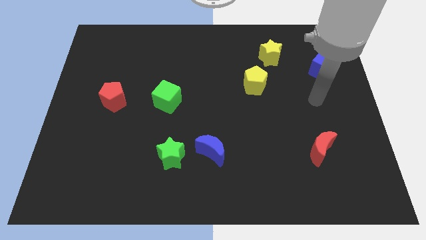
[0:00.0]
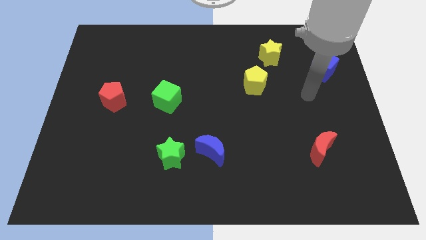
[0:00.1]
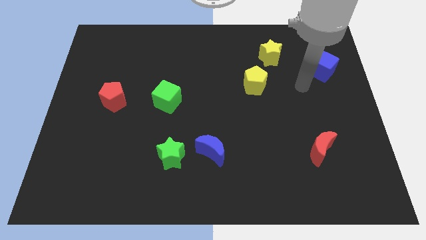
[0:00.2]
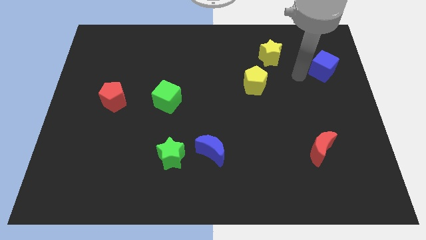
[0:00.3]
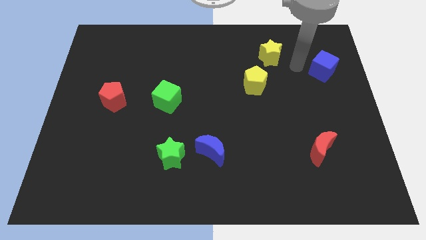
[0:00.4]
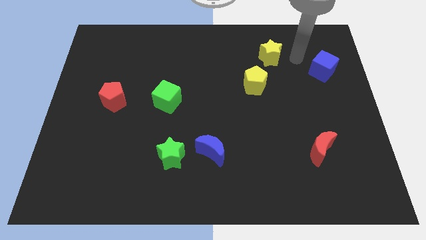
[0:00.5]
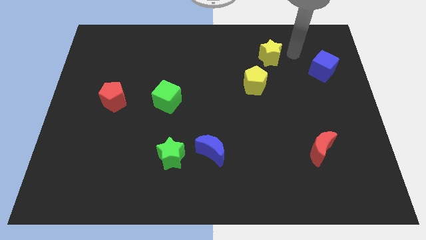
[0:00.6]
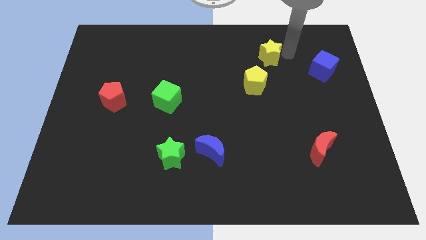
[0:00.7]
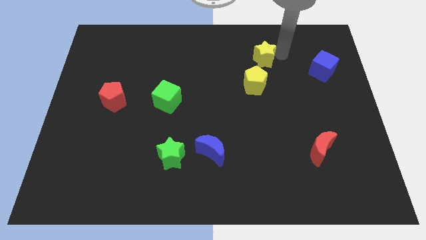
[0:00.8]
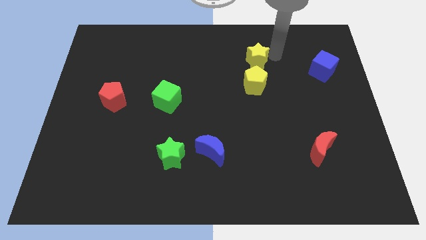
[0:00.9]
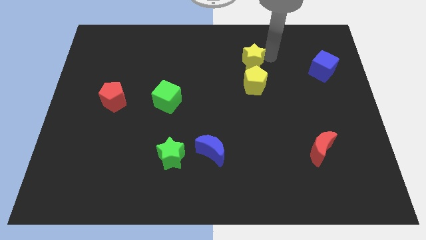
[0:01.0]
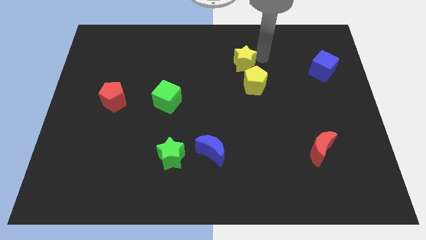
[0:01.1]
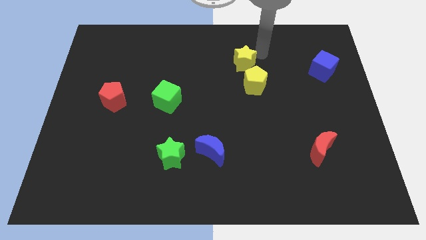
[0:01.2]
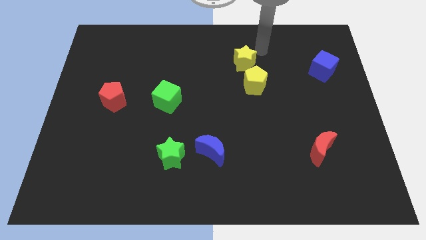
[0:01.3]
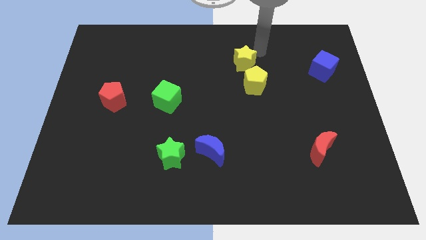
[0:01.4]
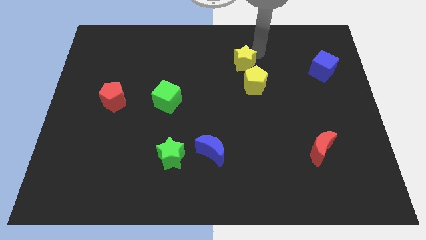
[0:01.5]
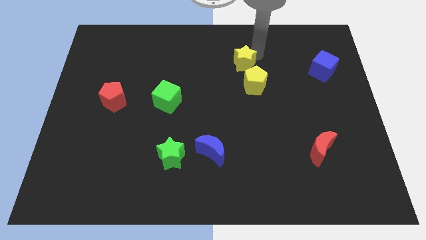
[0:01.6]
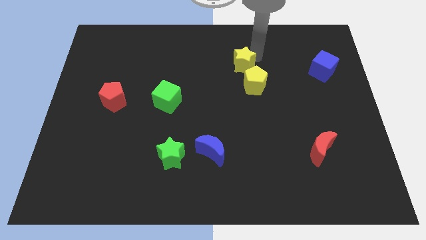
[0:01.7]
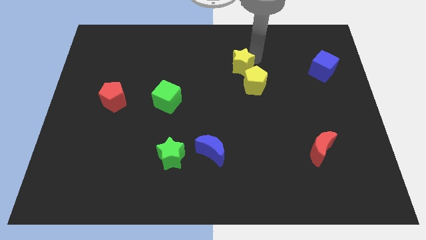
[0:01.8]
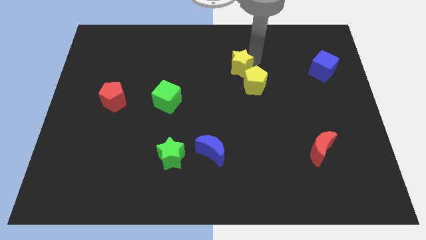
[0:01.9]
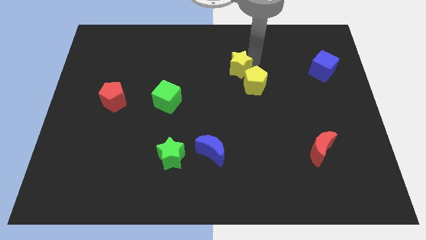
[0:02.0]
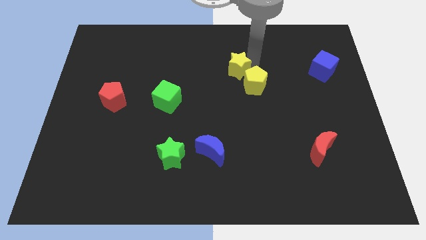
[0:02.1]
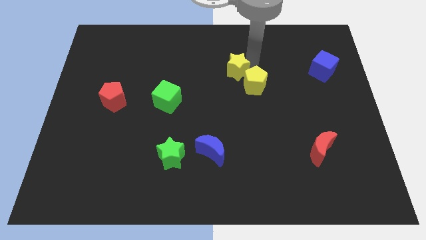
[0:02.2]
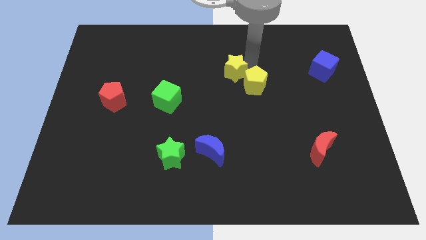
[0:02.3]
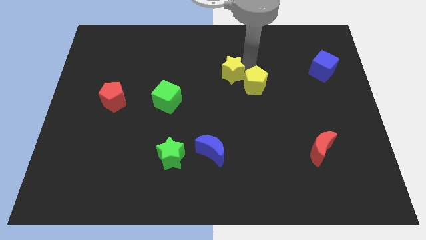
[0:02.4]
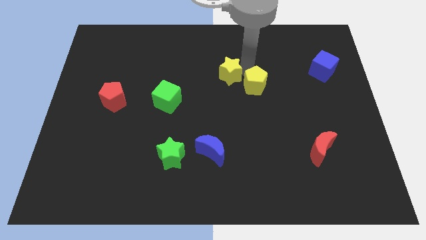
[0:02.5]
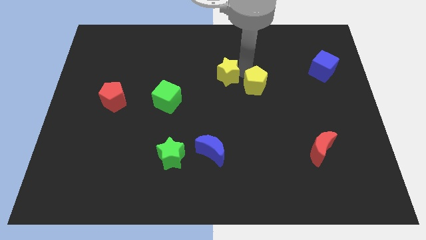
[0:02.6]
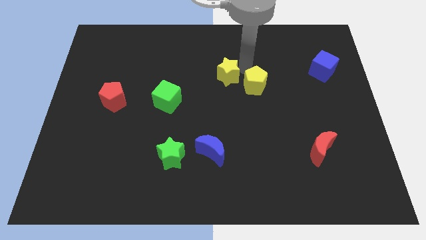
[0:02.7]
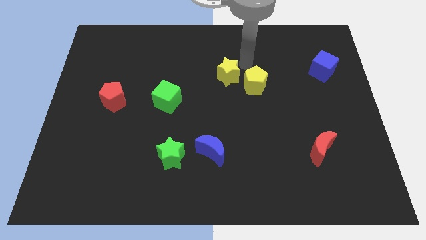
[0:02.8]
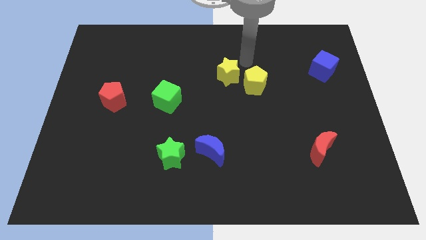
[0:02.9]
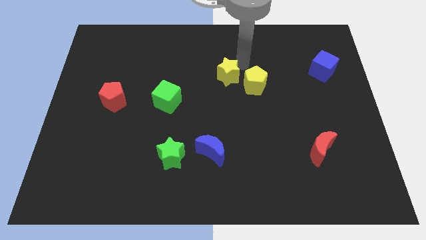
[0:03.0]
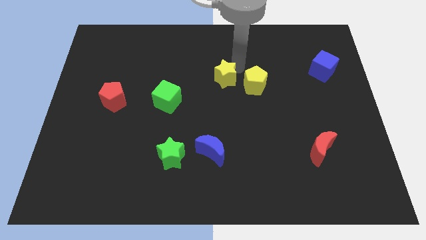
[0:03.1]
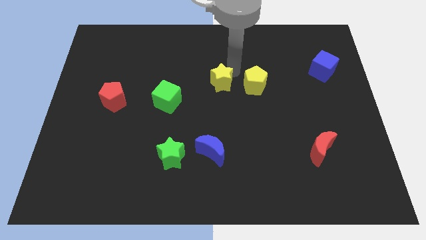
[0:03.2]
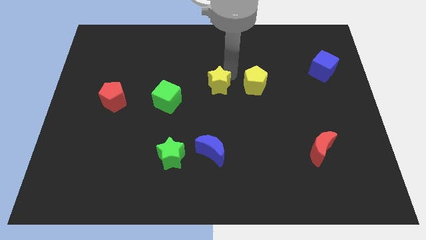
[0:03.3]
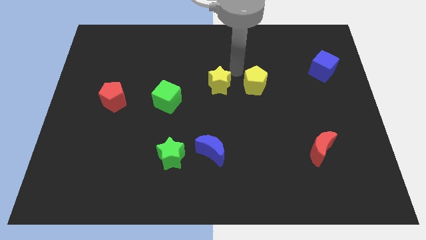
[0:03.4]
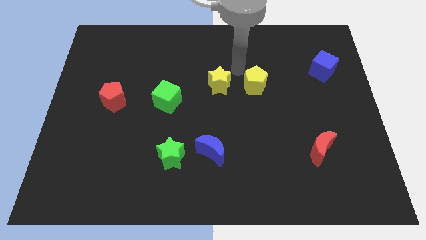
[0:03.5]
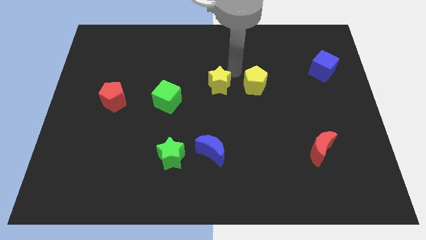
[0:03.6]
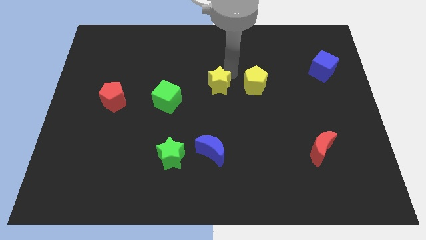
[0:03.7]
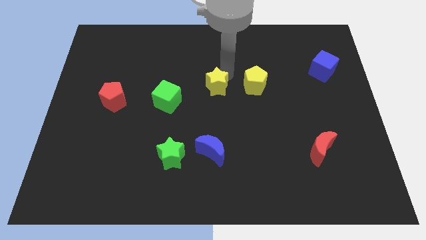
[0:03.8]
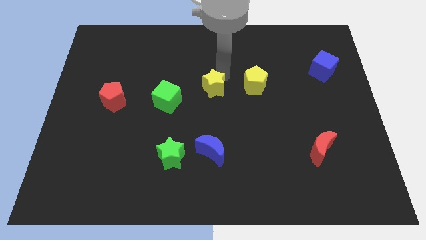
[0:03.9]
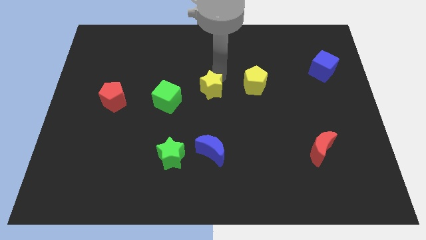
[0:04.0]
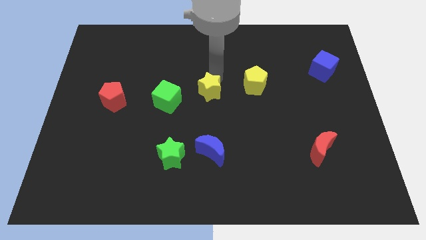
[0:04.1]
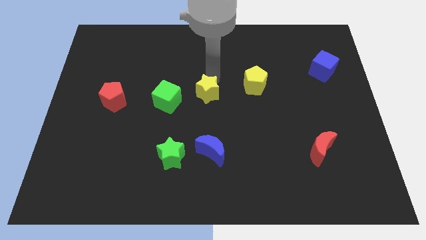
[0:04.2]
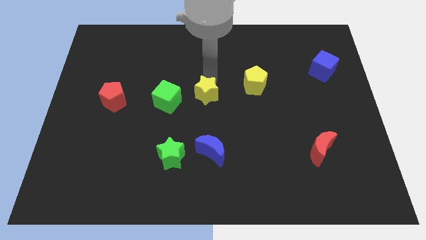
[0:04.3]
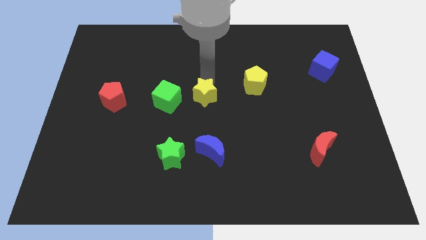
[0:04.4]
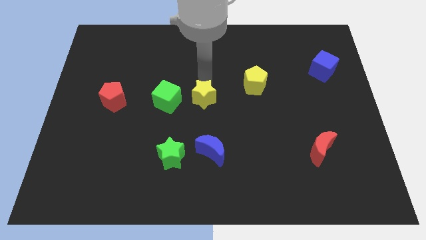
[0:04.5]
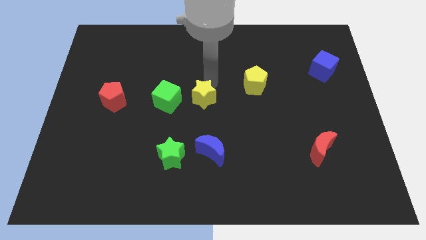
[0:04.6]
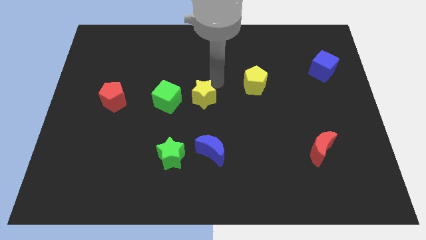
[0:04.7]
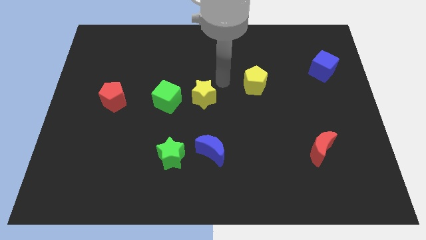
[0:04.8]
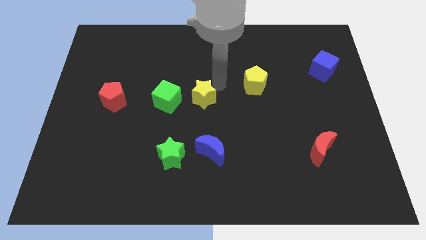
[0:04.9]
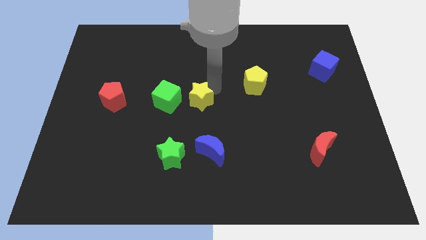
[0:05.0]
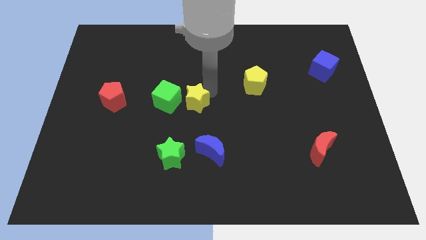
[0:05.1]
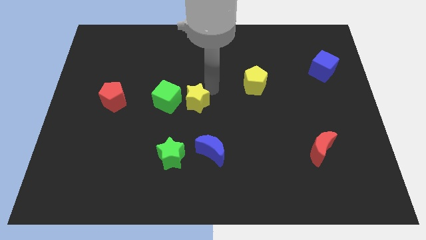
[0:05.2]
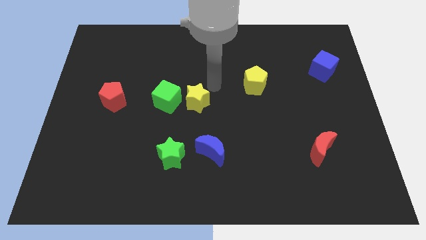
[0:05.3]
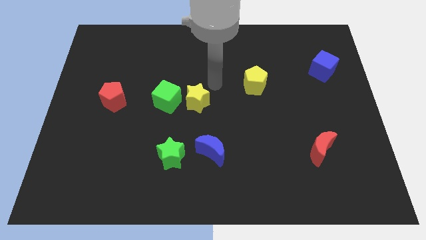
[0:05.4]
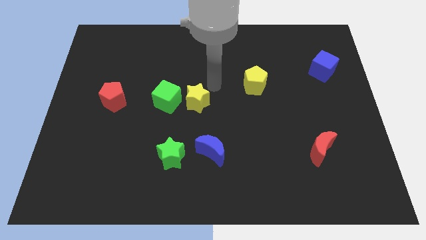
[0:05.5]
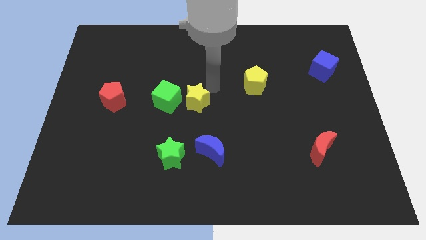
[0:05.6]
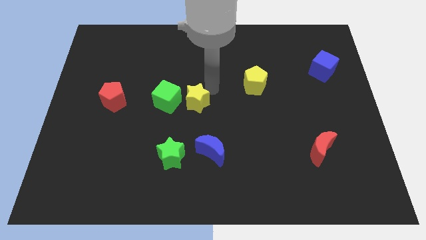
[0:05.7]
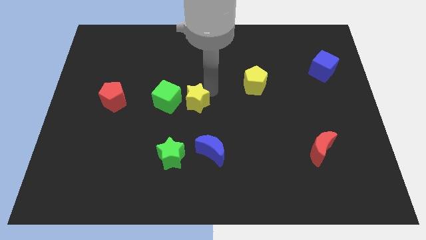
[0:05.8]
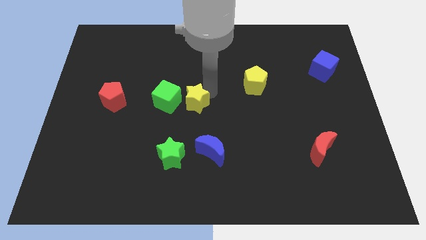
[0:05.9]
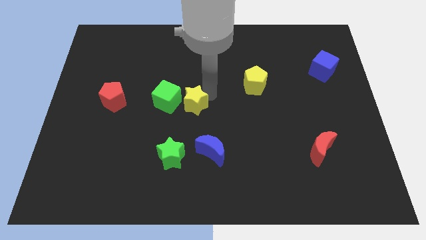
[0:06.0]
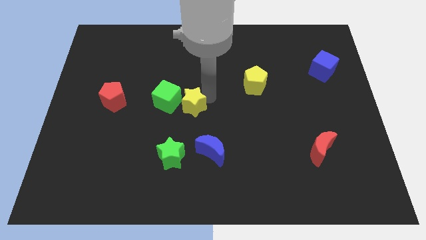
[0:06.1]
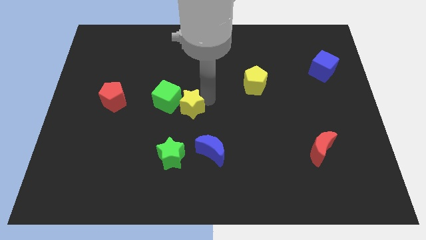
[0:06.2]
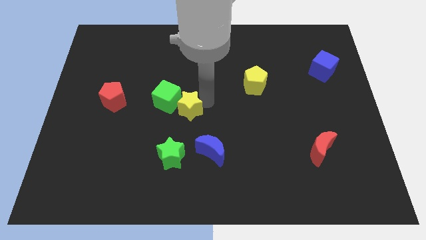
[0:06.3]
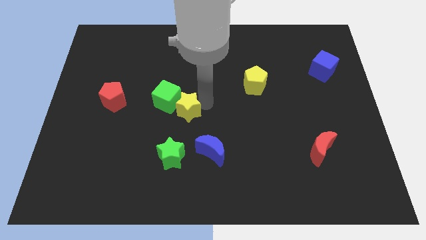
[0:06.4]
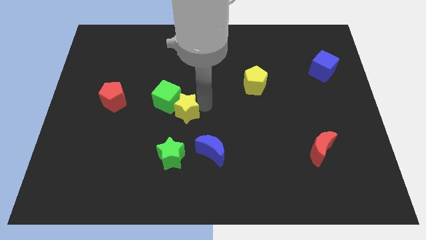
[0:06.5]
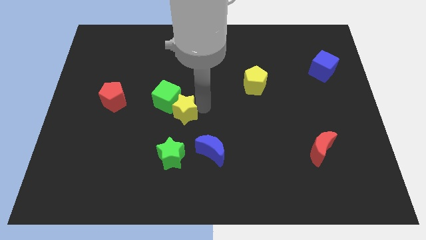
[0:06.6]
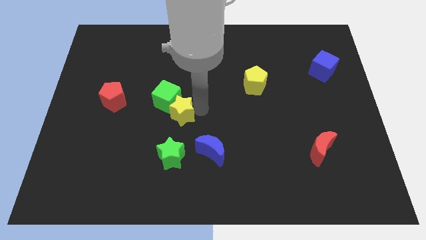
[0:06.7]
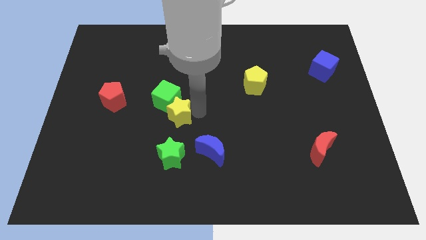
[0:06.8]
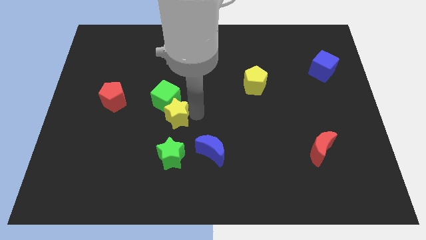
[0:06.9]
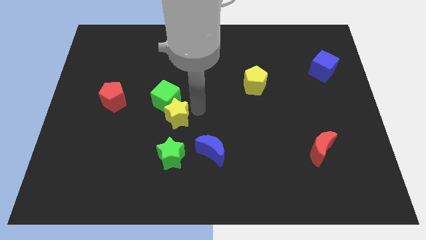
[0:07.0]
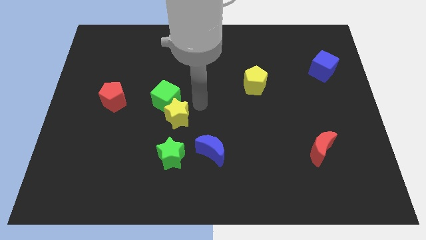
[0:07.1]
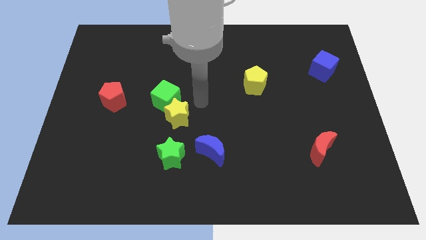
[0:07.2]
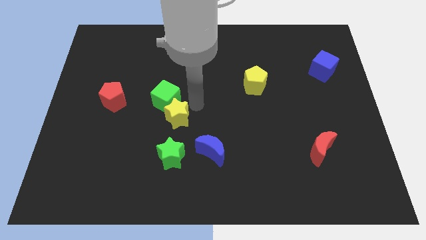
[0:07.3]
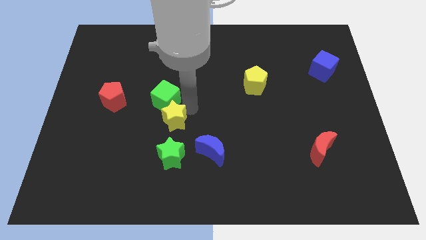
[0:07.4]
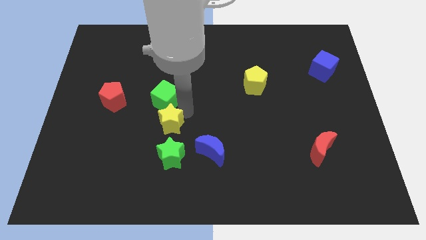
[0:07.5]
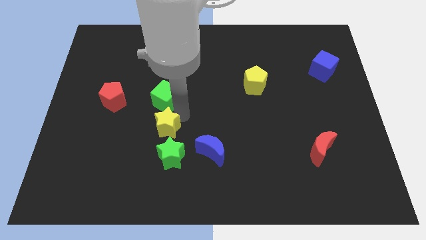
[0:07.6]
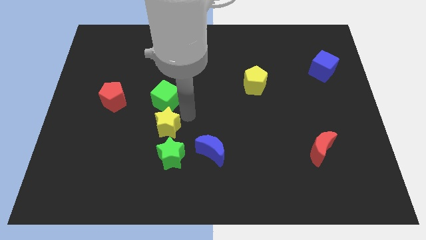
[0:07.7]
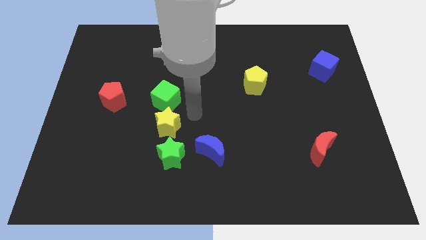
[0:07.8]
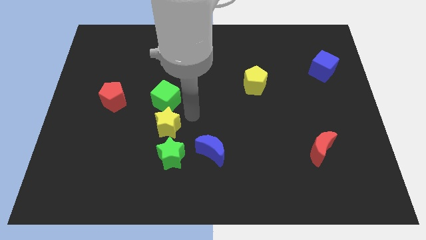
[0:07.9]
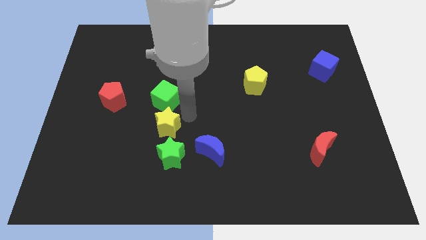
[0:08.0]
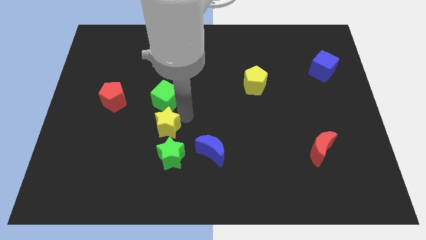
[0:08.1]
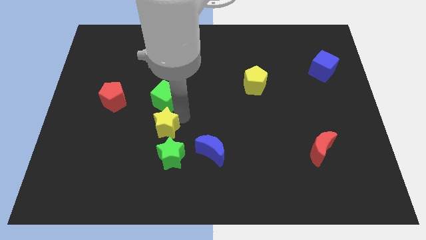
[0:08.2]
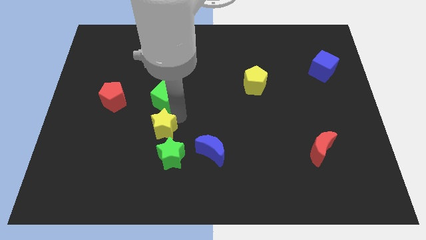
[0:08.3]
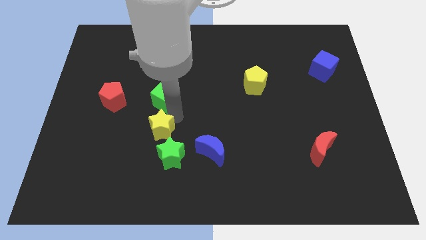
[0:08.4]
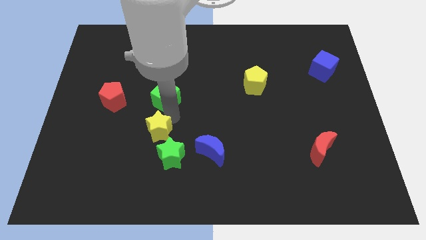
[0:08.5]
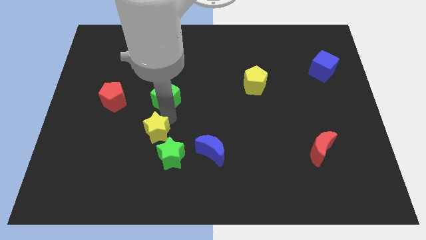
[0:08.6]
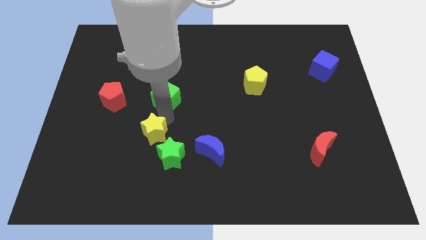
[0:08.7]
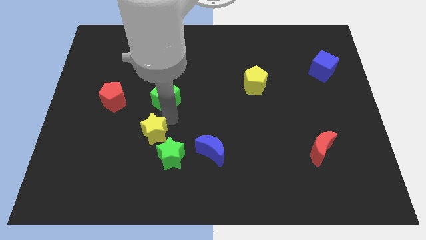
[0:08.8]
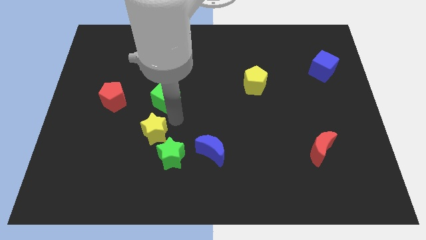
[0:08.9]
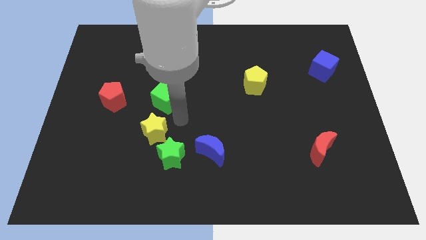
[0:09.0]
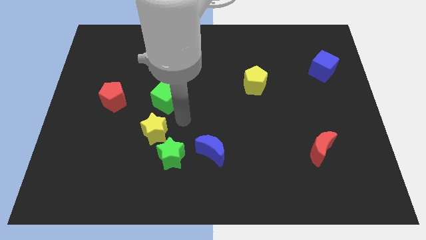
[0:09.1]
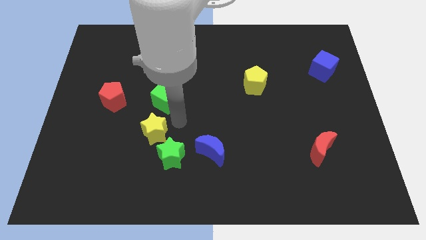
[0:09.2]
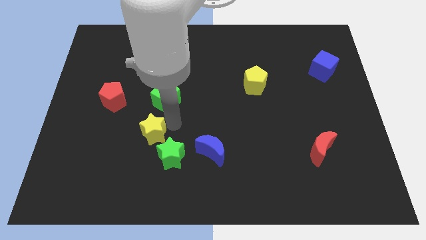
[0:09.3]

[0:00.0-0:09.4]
push the yellow star to the left of the blue moon
